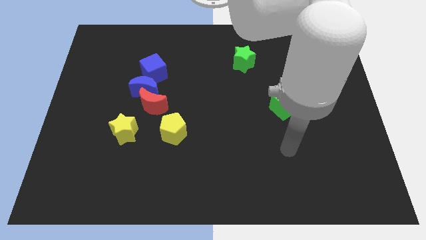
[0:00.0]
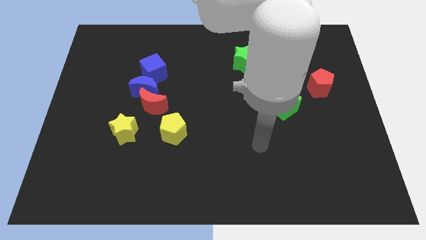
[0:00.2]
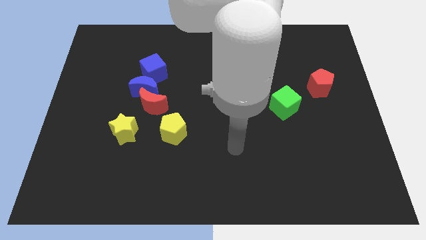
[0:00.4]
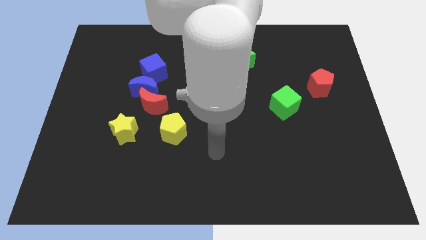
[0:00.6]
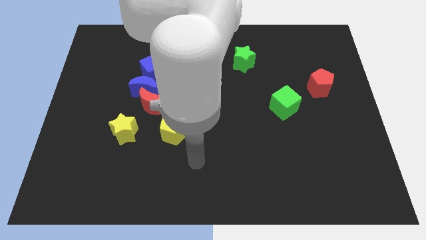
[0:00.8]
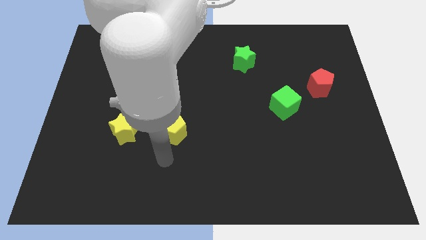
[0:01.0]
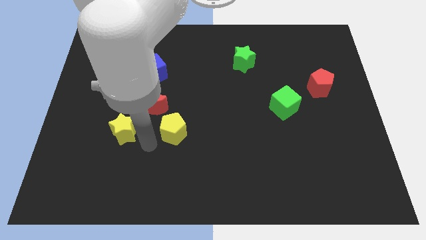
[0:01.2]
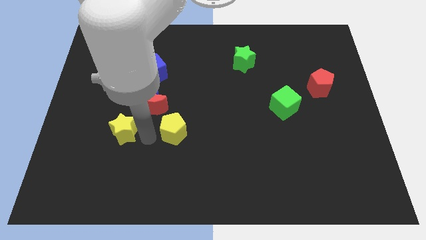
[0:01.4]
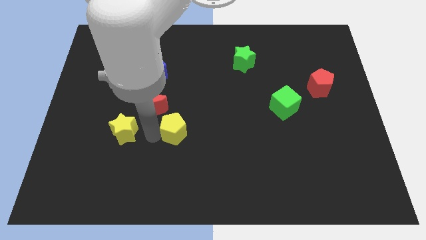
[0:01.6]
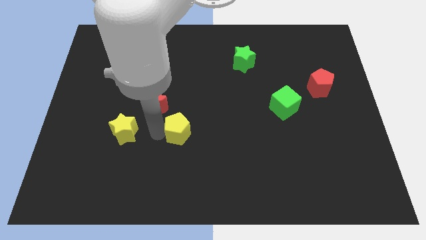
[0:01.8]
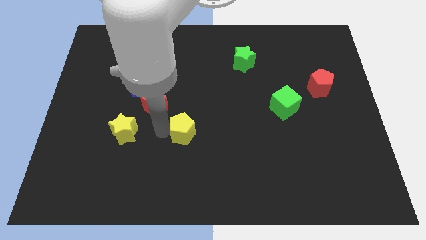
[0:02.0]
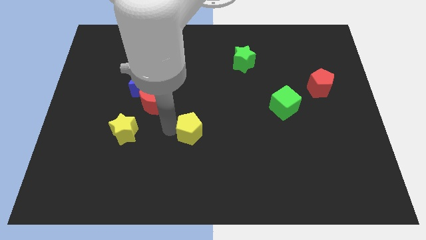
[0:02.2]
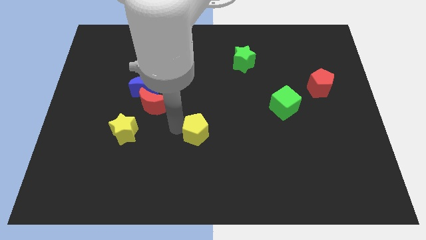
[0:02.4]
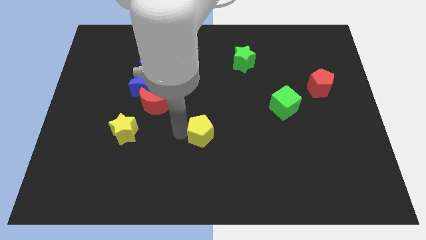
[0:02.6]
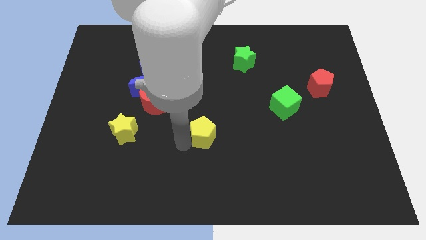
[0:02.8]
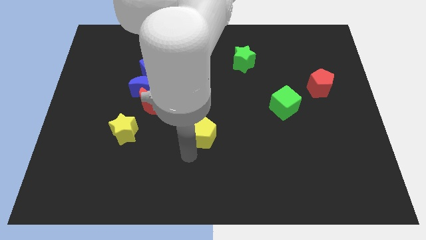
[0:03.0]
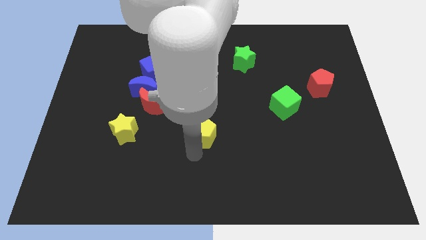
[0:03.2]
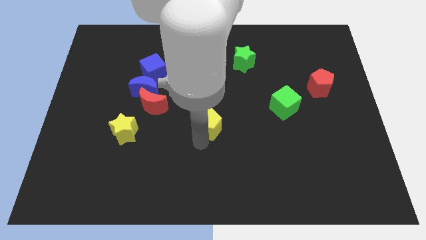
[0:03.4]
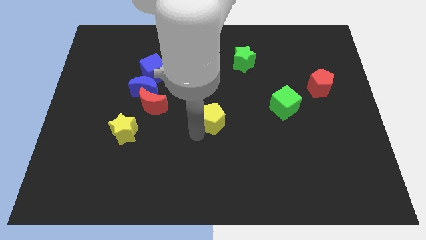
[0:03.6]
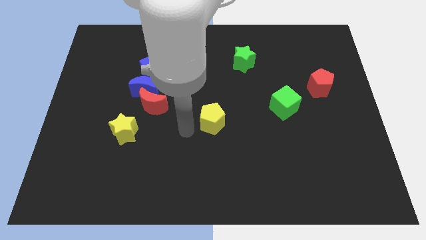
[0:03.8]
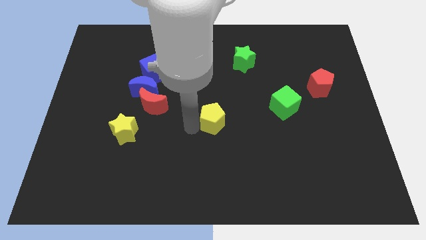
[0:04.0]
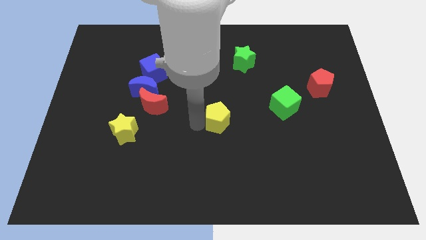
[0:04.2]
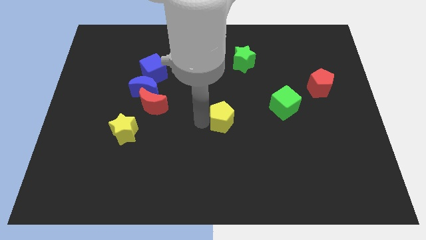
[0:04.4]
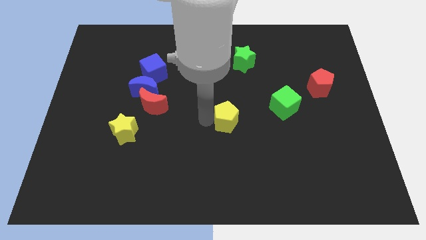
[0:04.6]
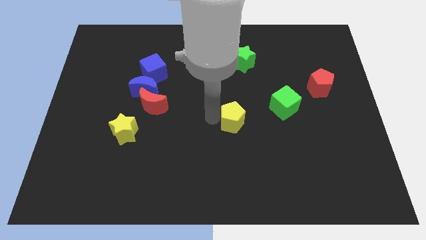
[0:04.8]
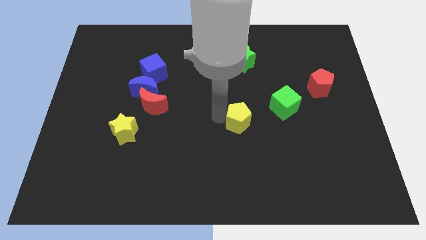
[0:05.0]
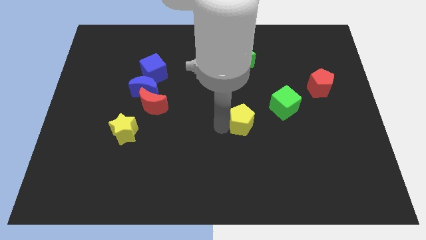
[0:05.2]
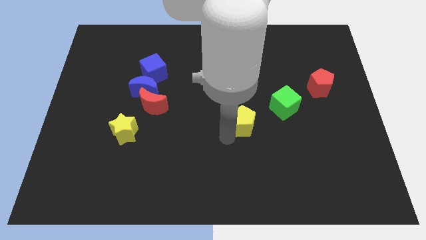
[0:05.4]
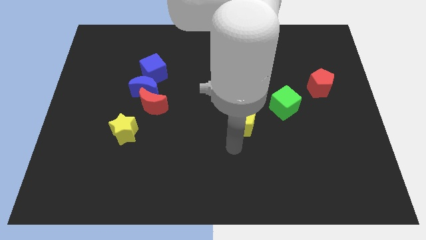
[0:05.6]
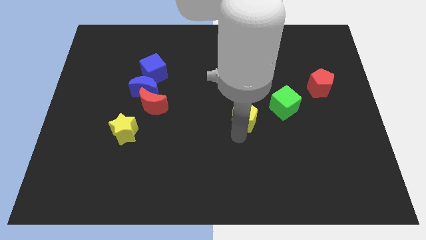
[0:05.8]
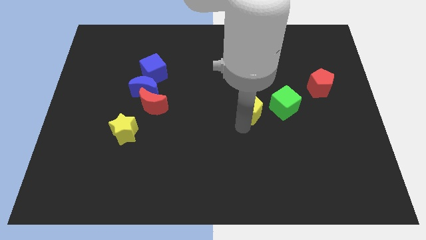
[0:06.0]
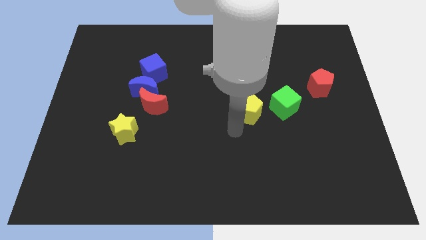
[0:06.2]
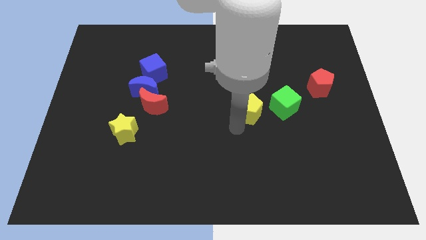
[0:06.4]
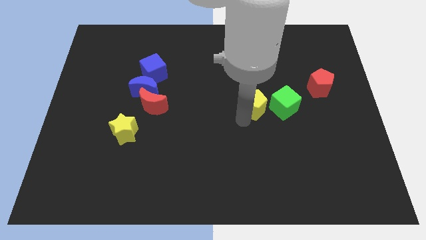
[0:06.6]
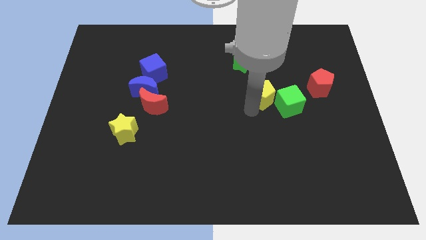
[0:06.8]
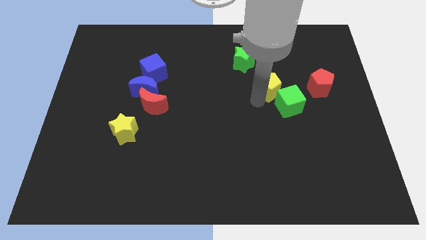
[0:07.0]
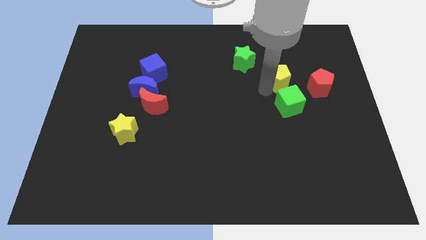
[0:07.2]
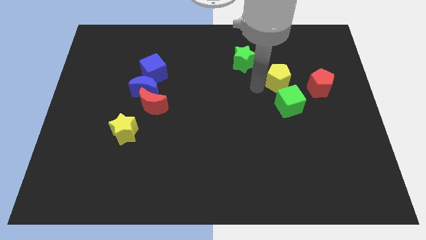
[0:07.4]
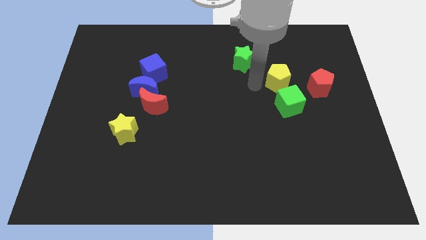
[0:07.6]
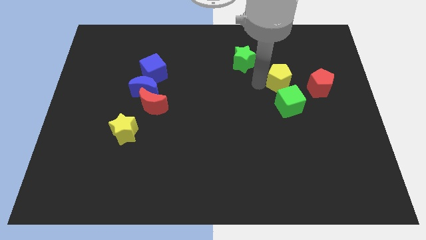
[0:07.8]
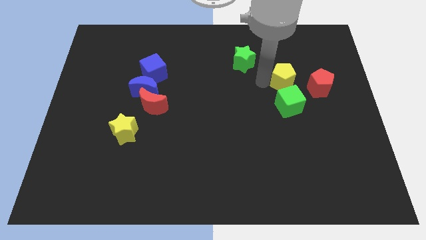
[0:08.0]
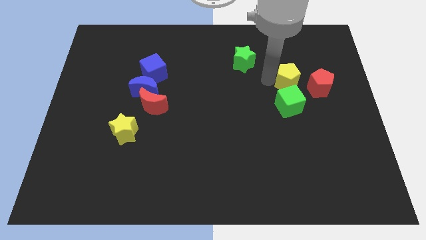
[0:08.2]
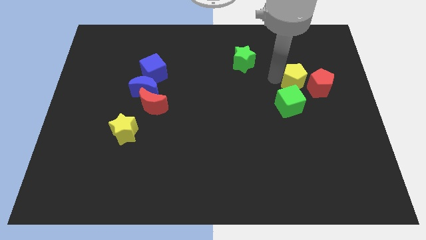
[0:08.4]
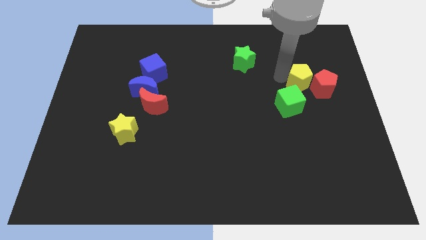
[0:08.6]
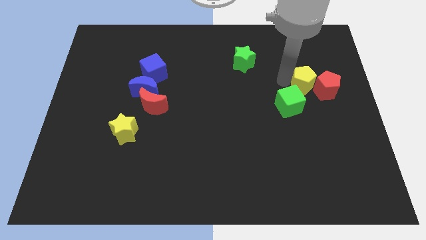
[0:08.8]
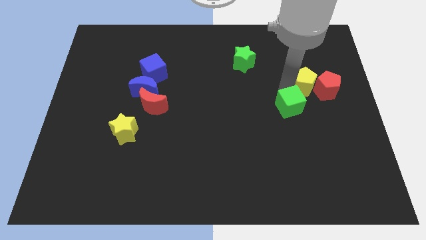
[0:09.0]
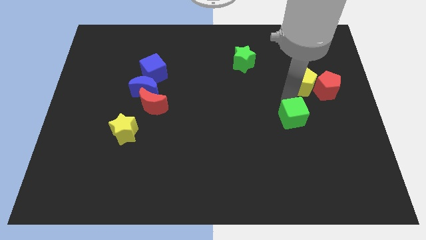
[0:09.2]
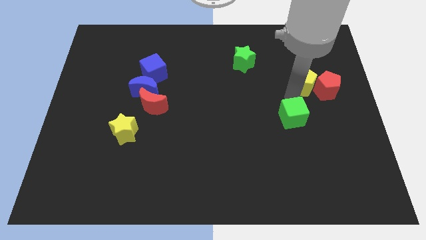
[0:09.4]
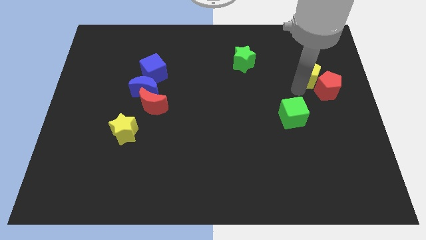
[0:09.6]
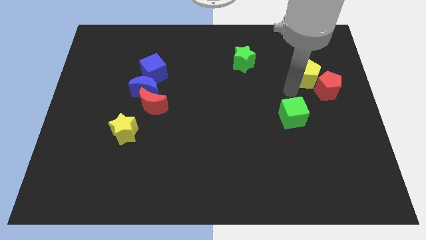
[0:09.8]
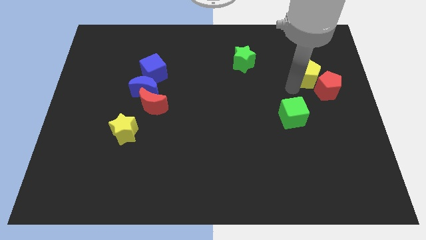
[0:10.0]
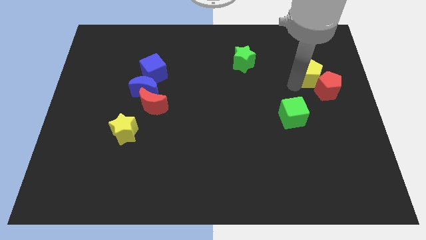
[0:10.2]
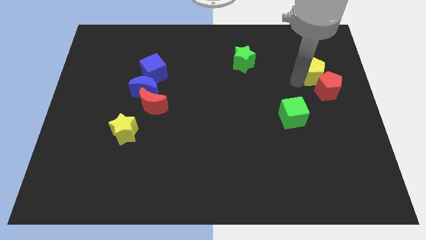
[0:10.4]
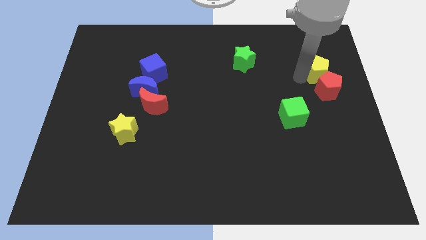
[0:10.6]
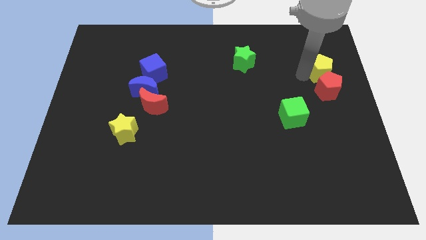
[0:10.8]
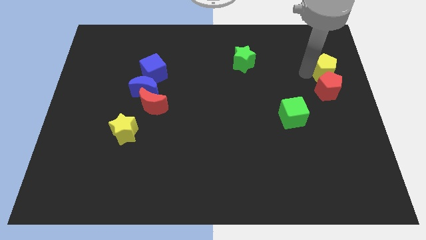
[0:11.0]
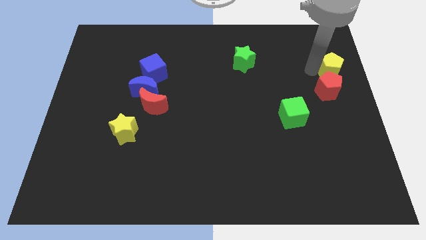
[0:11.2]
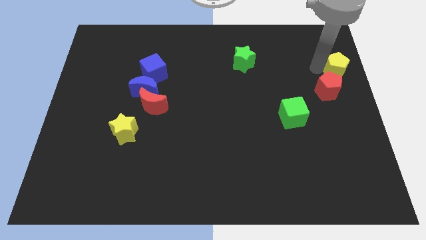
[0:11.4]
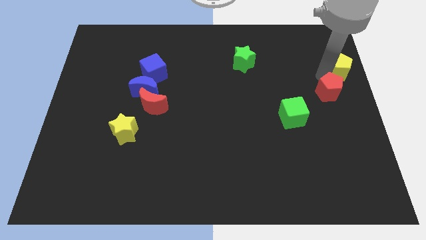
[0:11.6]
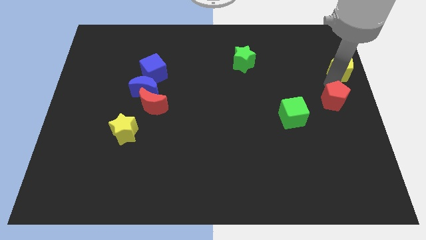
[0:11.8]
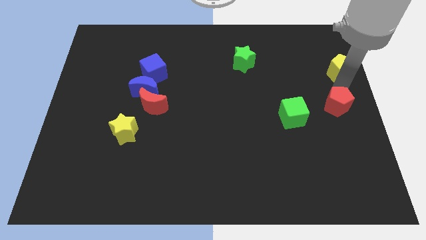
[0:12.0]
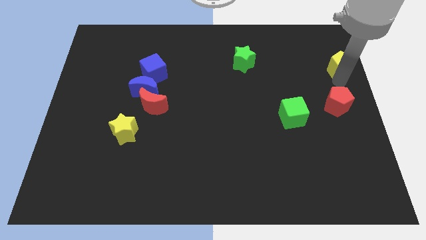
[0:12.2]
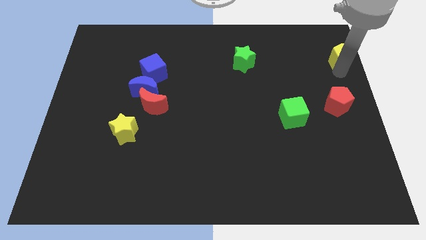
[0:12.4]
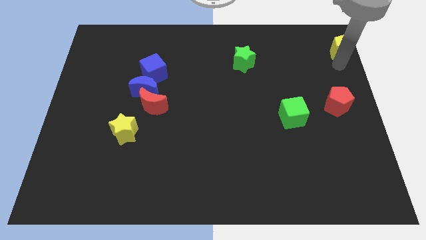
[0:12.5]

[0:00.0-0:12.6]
move the yellow pentagon to the top right
